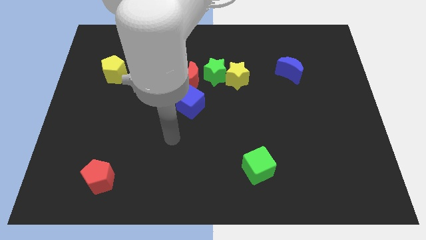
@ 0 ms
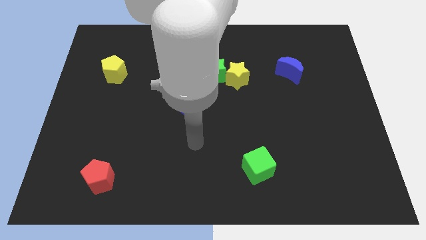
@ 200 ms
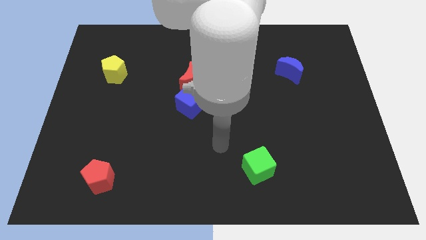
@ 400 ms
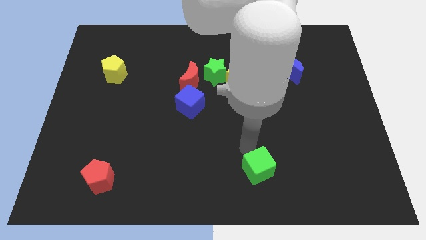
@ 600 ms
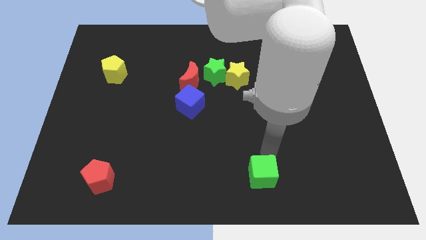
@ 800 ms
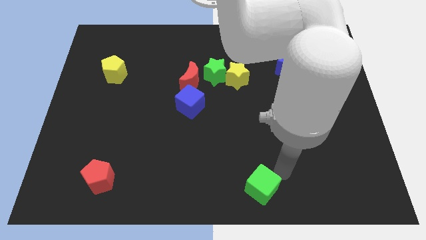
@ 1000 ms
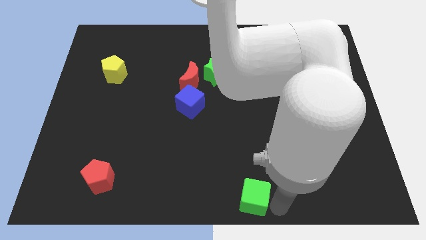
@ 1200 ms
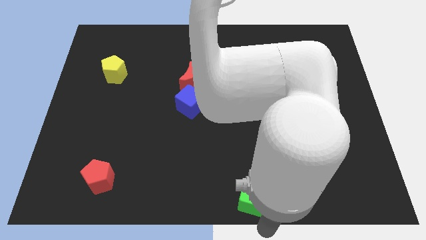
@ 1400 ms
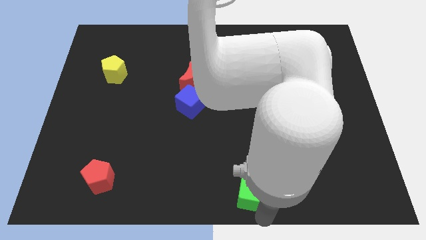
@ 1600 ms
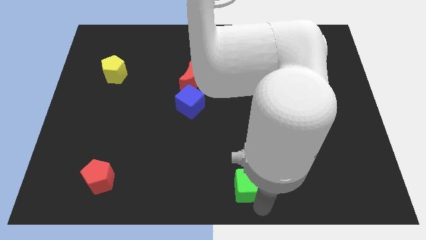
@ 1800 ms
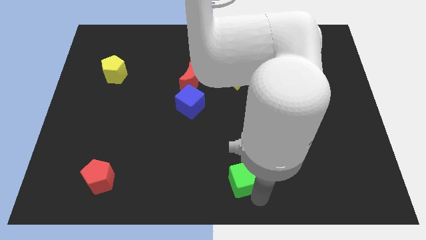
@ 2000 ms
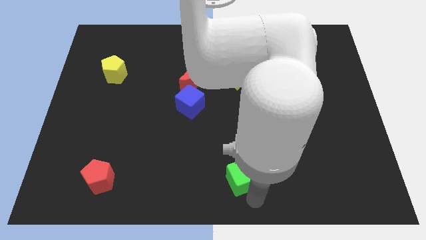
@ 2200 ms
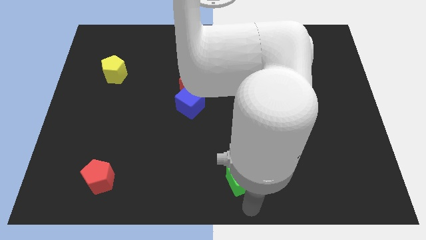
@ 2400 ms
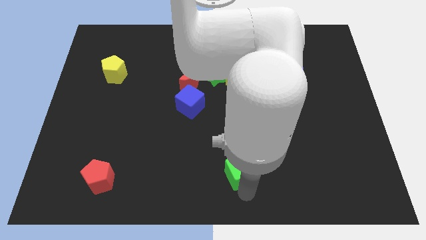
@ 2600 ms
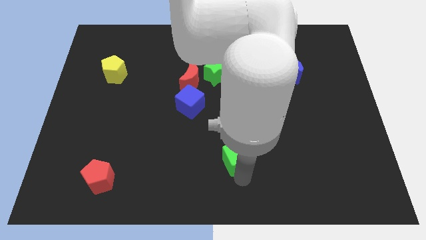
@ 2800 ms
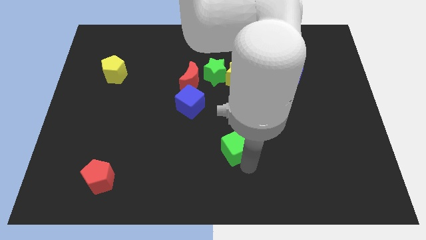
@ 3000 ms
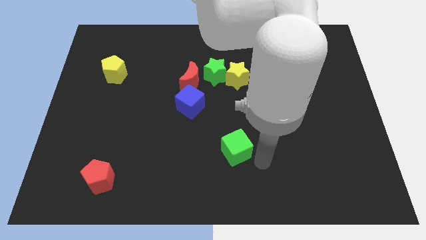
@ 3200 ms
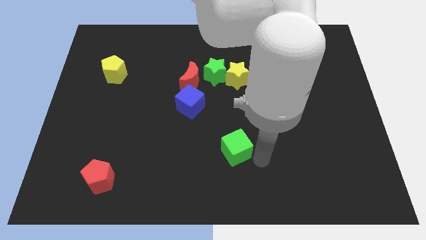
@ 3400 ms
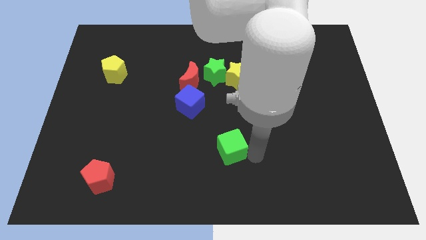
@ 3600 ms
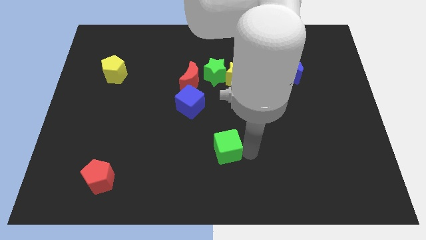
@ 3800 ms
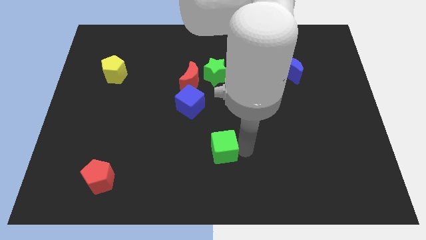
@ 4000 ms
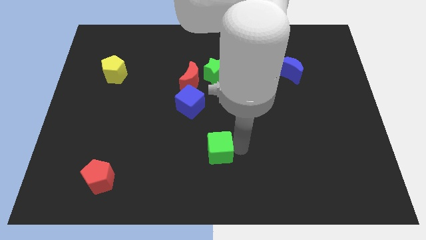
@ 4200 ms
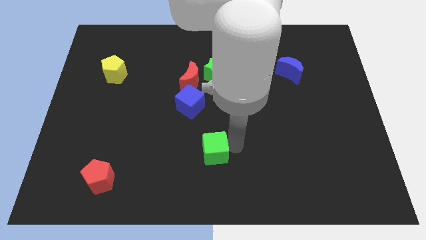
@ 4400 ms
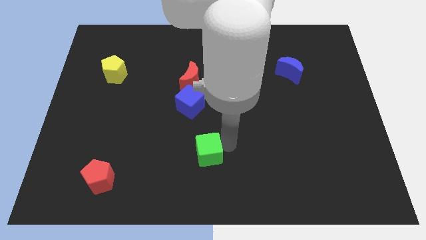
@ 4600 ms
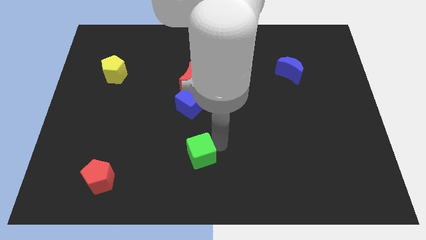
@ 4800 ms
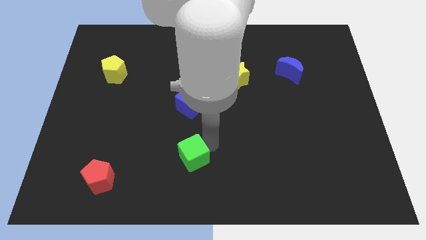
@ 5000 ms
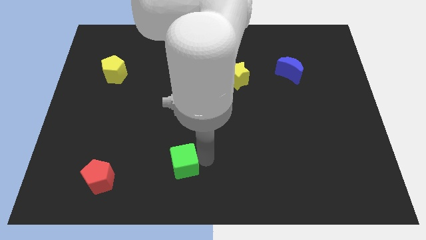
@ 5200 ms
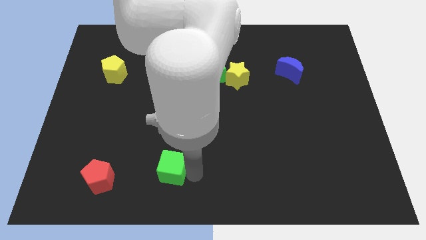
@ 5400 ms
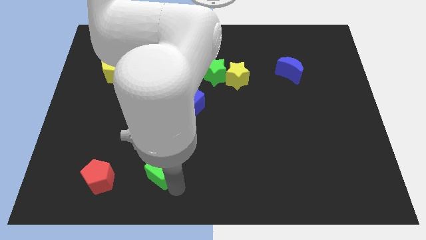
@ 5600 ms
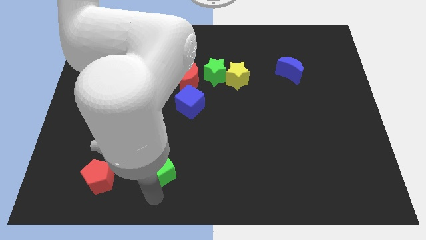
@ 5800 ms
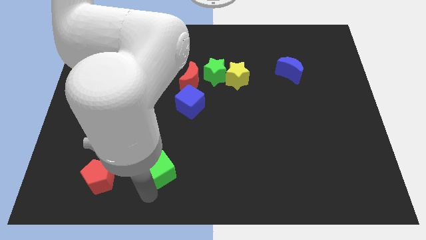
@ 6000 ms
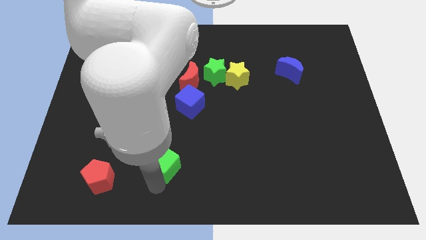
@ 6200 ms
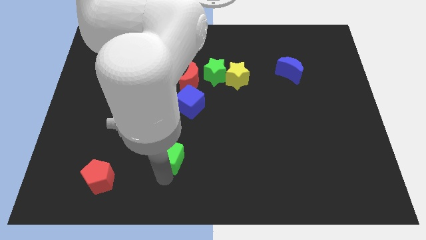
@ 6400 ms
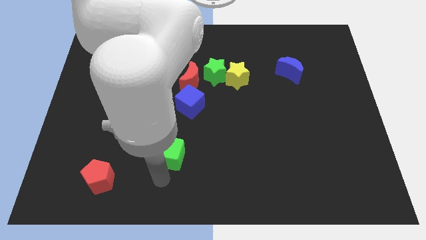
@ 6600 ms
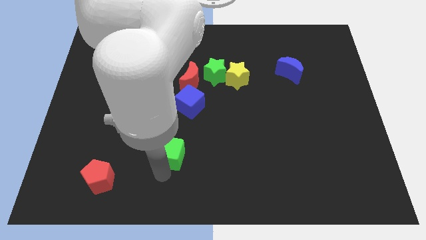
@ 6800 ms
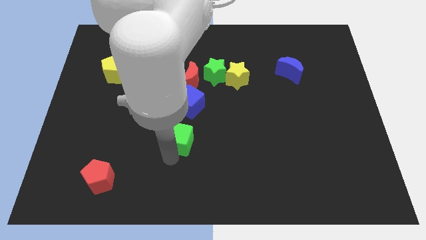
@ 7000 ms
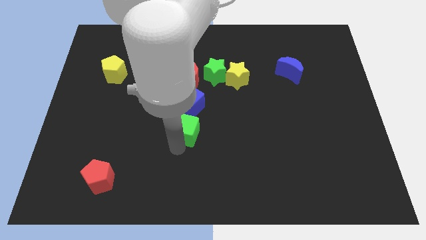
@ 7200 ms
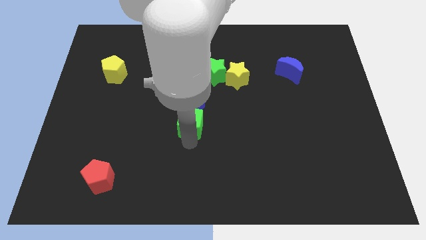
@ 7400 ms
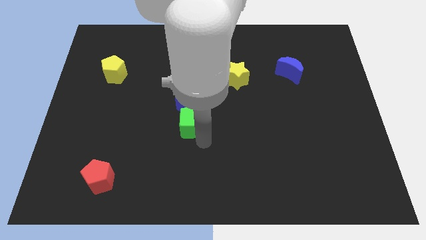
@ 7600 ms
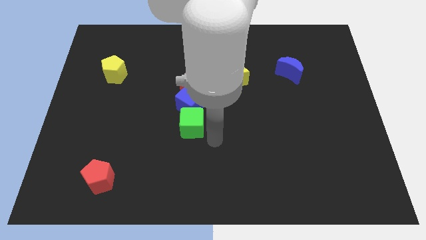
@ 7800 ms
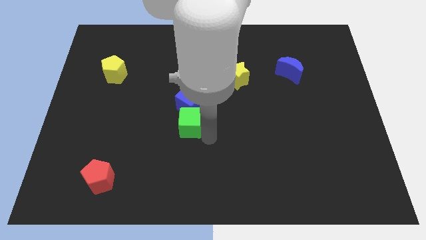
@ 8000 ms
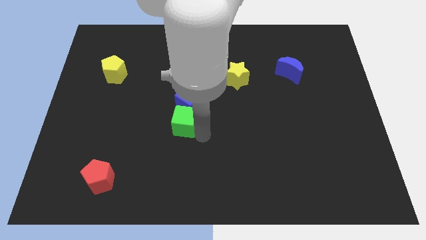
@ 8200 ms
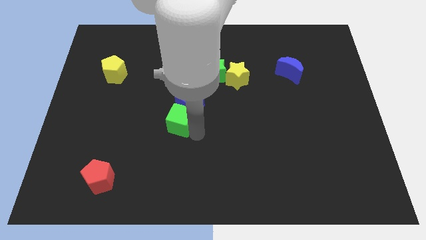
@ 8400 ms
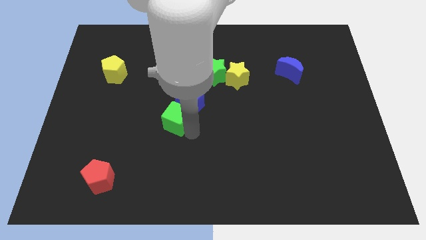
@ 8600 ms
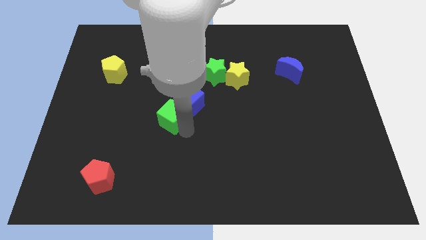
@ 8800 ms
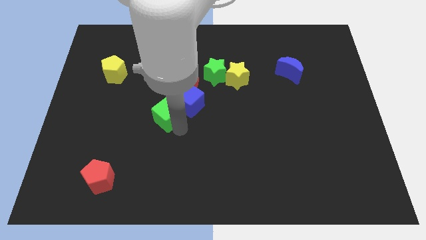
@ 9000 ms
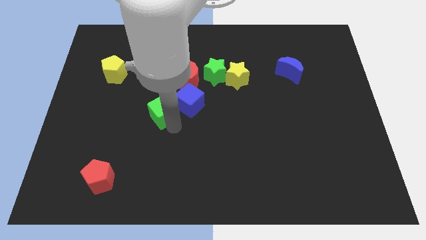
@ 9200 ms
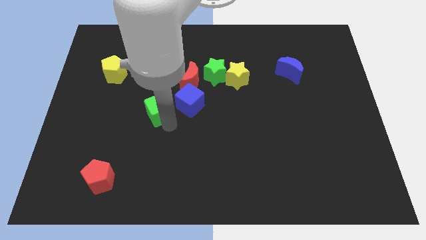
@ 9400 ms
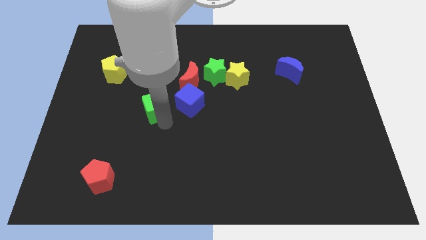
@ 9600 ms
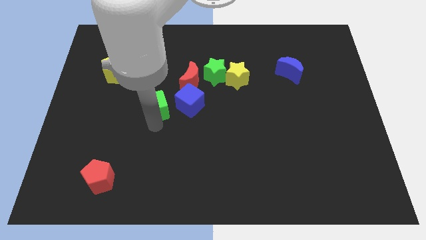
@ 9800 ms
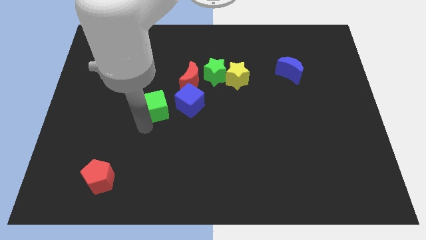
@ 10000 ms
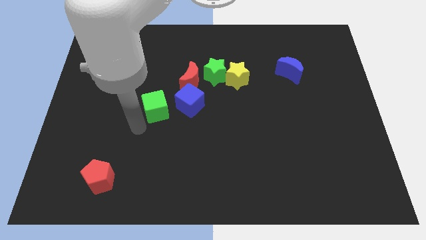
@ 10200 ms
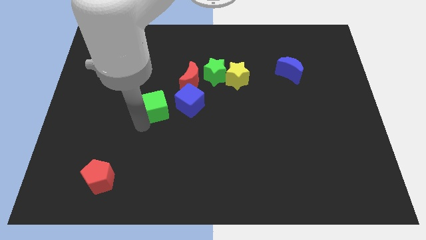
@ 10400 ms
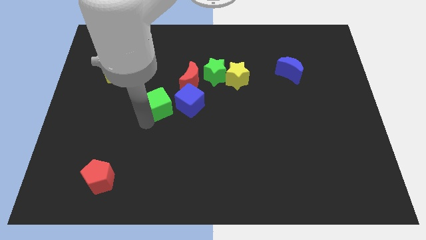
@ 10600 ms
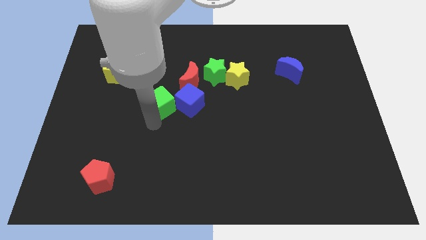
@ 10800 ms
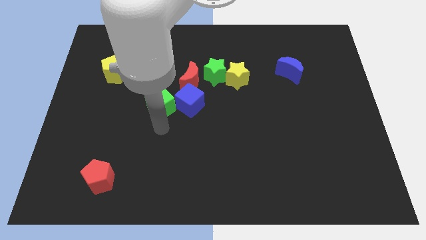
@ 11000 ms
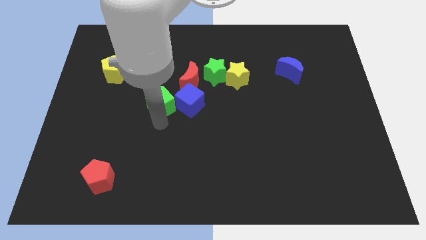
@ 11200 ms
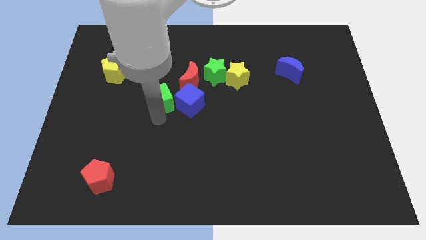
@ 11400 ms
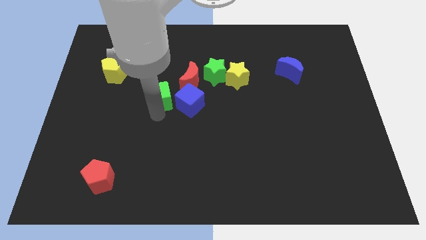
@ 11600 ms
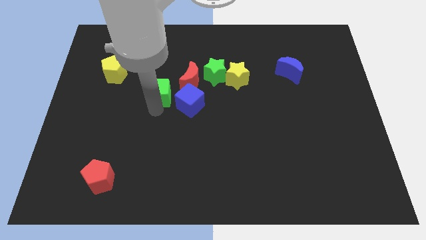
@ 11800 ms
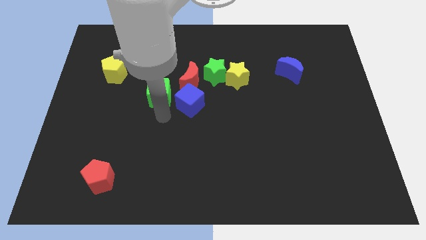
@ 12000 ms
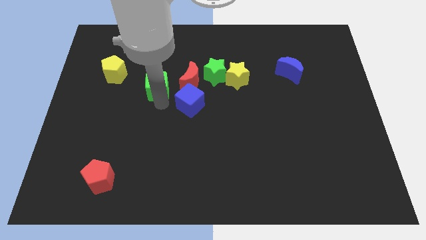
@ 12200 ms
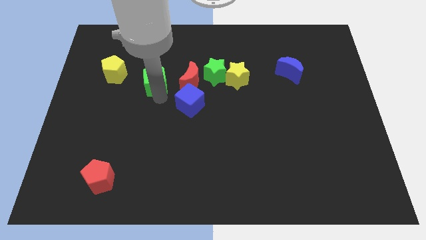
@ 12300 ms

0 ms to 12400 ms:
put the green cube to the right side of the yellow pentagon

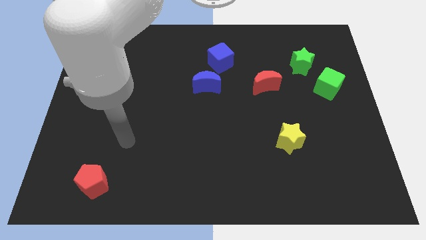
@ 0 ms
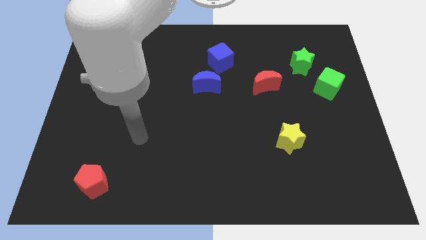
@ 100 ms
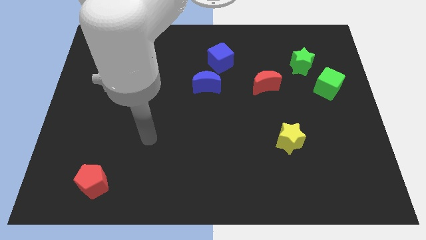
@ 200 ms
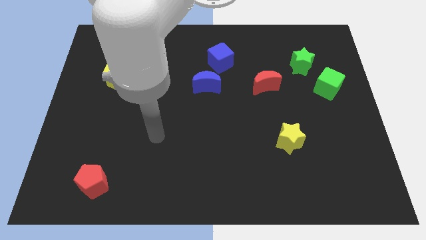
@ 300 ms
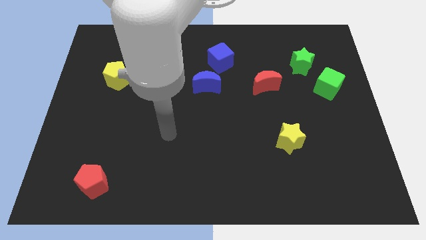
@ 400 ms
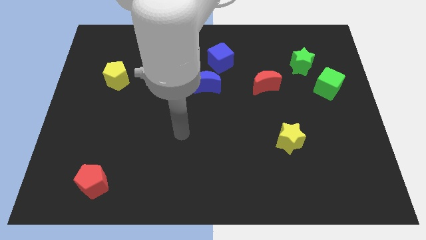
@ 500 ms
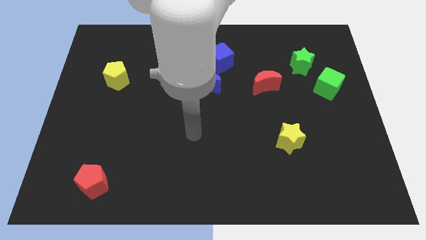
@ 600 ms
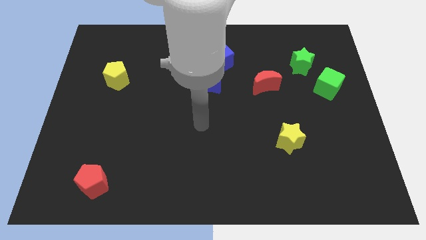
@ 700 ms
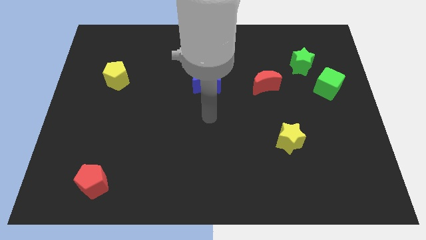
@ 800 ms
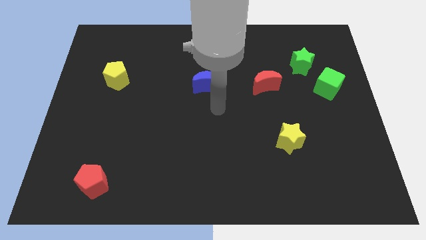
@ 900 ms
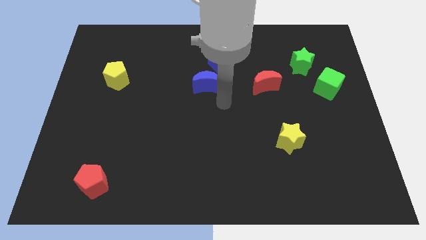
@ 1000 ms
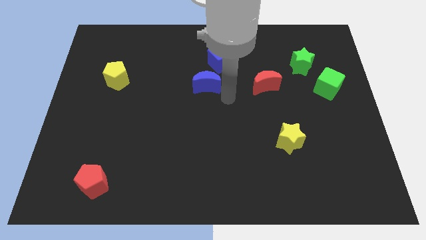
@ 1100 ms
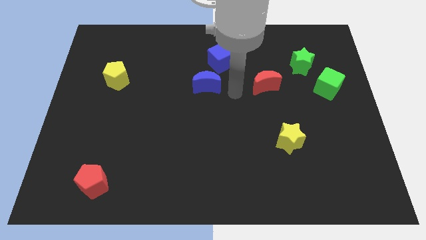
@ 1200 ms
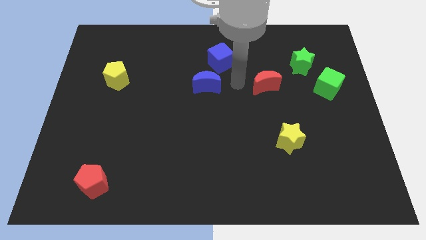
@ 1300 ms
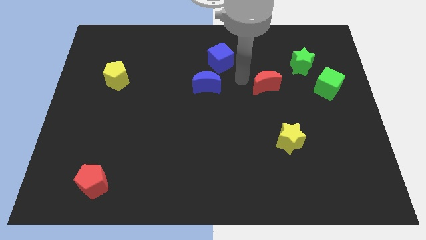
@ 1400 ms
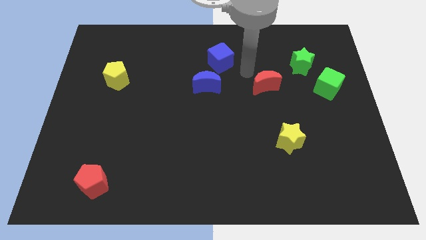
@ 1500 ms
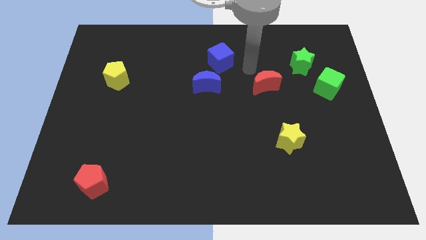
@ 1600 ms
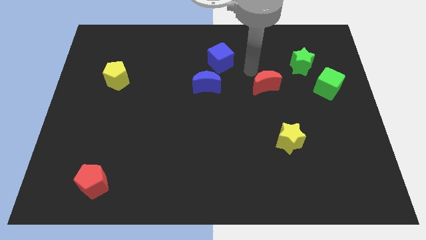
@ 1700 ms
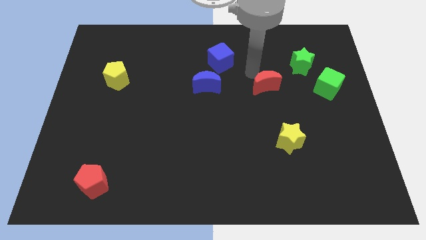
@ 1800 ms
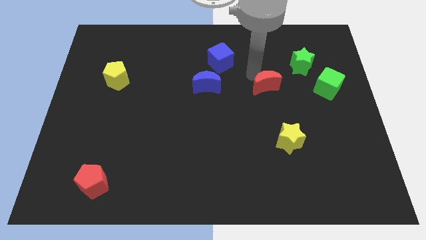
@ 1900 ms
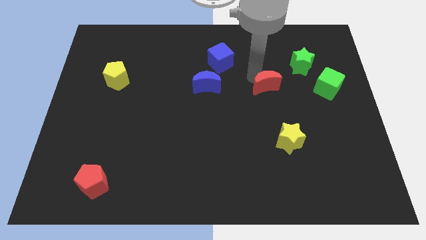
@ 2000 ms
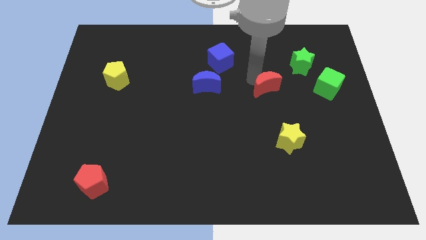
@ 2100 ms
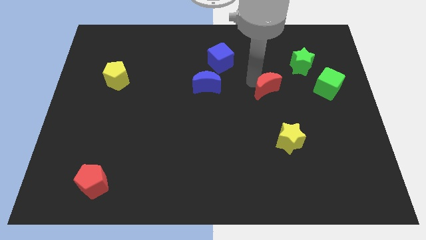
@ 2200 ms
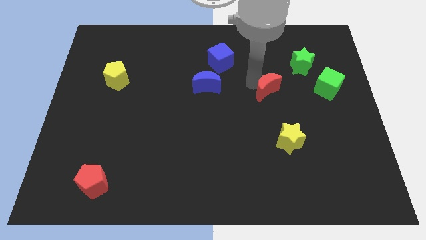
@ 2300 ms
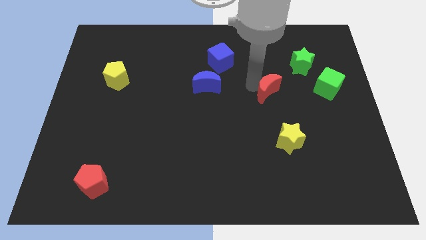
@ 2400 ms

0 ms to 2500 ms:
slide the red moon to the top side of the yellow star
